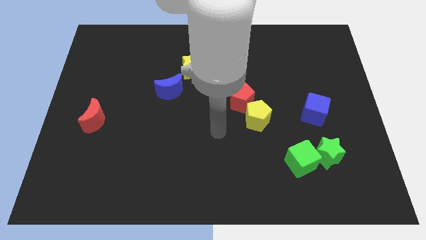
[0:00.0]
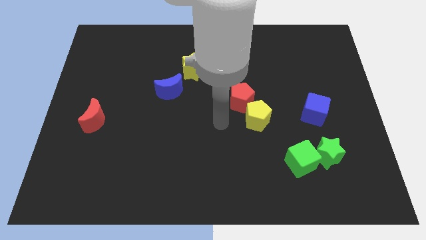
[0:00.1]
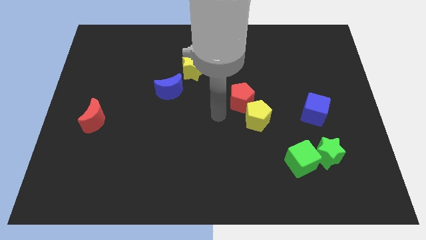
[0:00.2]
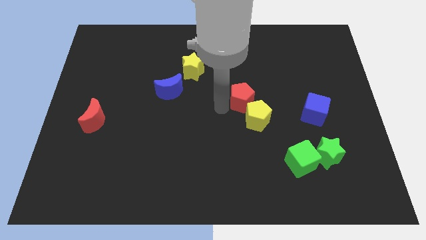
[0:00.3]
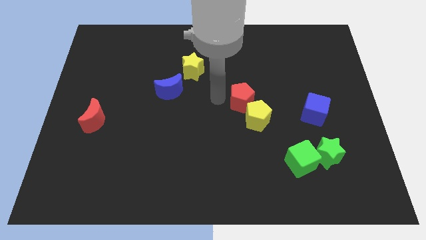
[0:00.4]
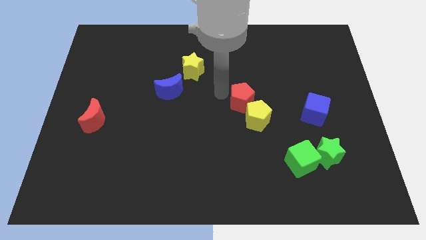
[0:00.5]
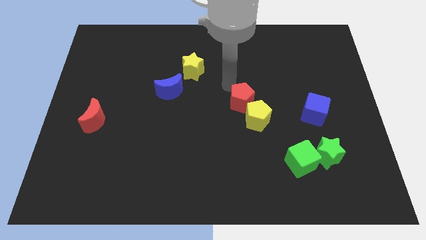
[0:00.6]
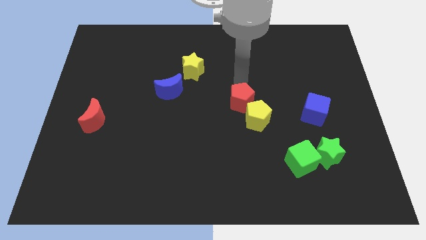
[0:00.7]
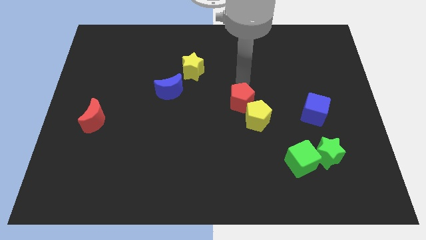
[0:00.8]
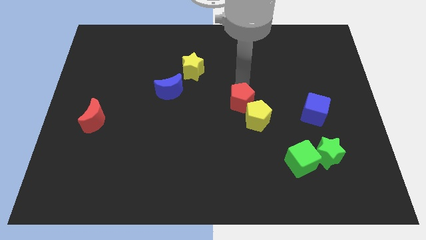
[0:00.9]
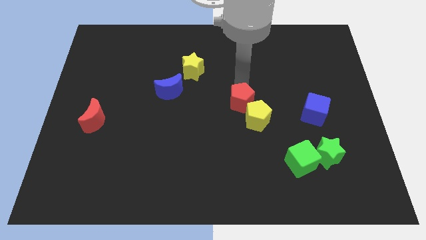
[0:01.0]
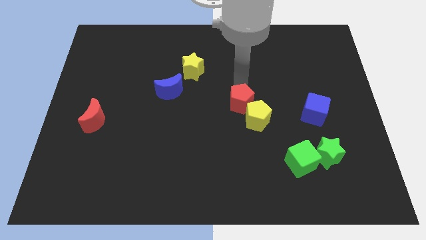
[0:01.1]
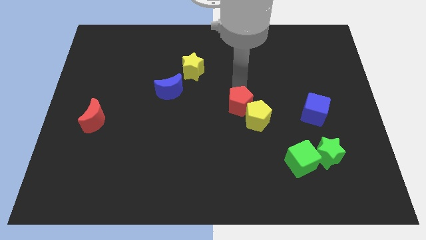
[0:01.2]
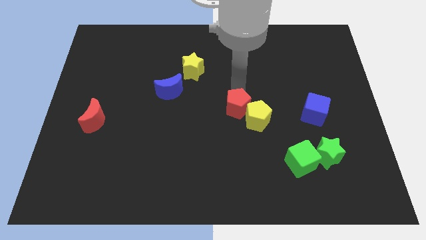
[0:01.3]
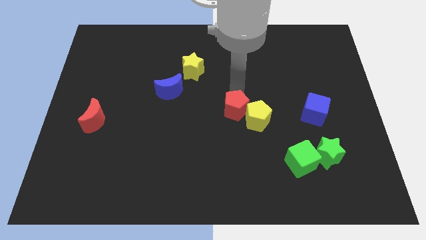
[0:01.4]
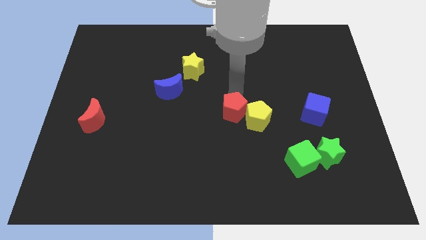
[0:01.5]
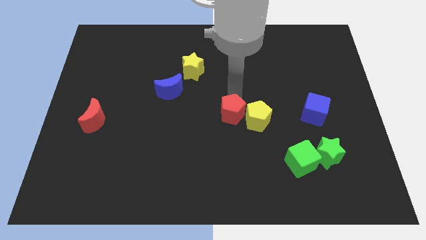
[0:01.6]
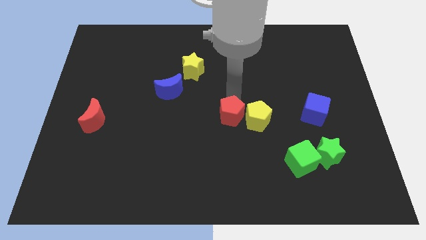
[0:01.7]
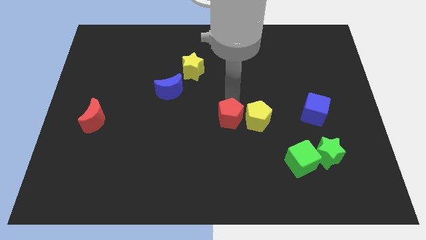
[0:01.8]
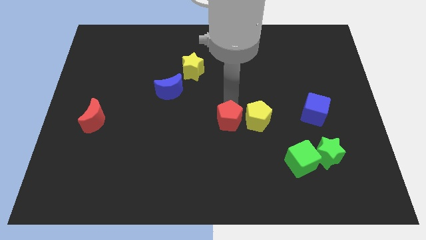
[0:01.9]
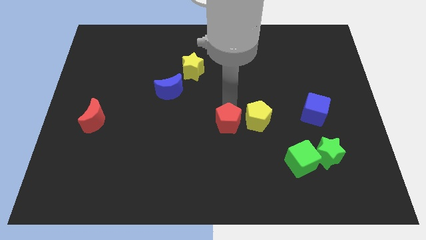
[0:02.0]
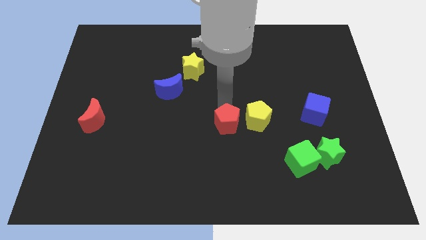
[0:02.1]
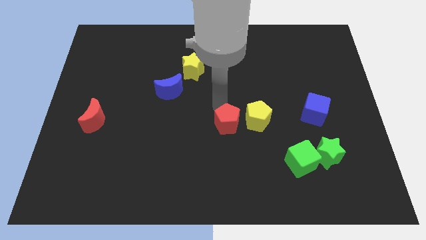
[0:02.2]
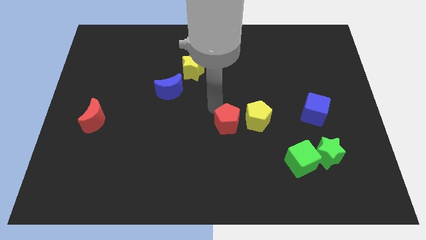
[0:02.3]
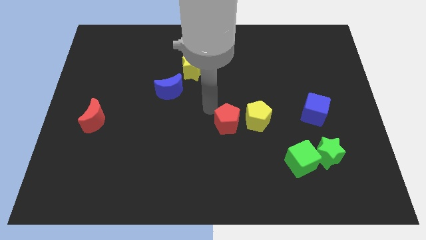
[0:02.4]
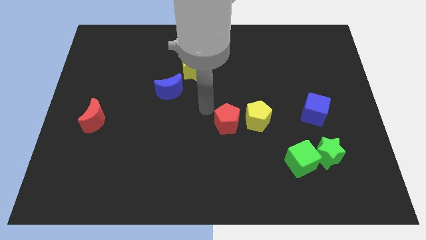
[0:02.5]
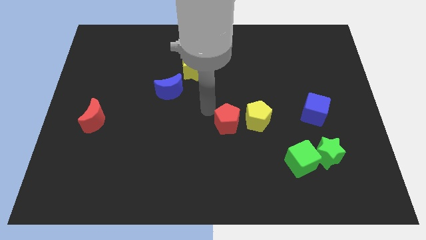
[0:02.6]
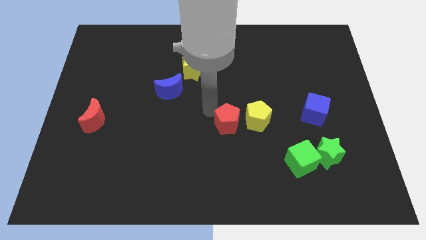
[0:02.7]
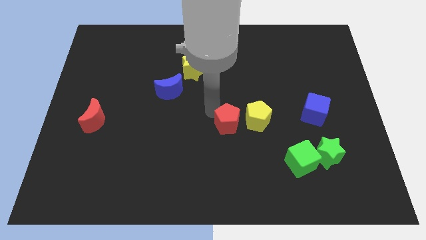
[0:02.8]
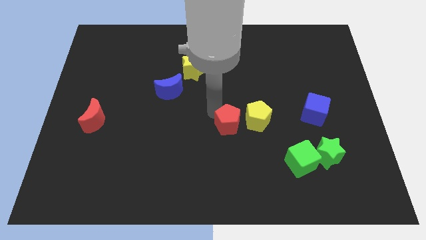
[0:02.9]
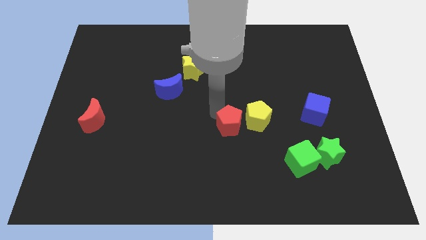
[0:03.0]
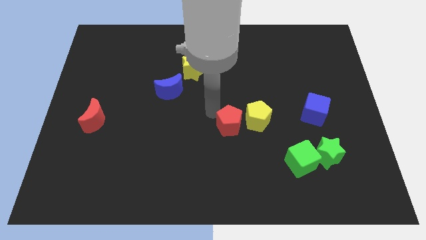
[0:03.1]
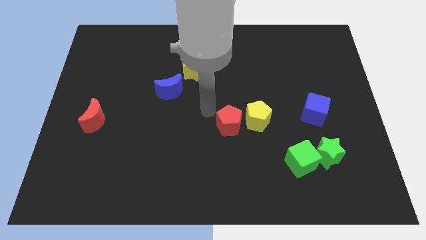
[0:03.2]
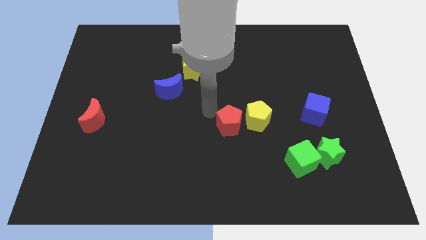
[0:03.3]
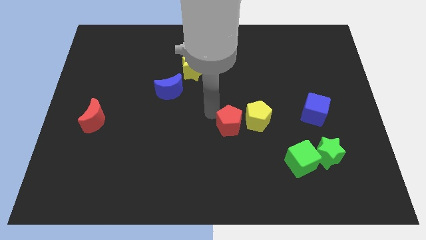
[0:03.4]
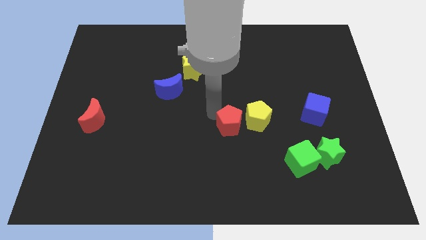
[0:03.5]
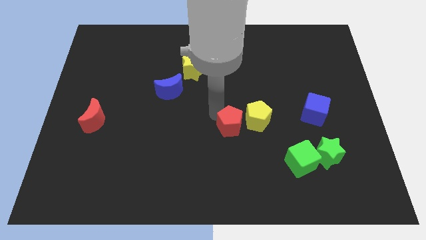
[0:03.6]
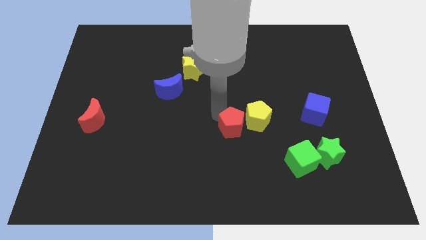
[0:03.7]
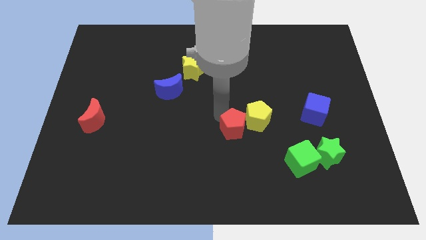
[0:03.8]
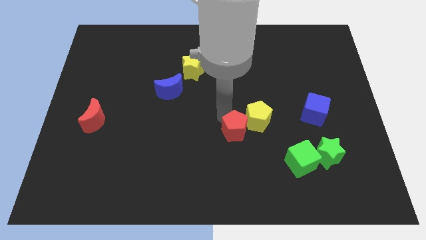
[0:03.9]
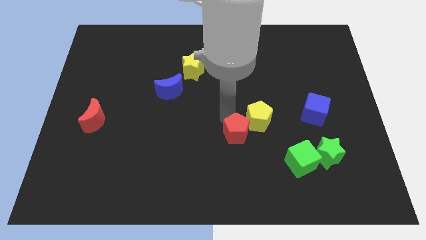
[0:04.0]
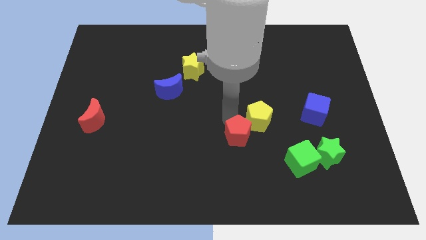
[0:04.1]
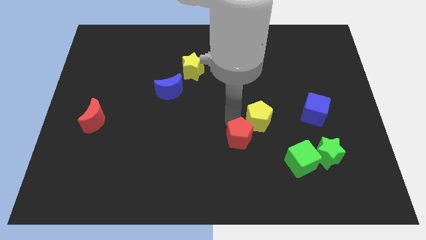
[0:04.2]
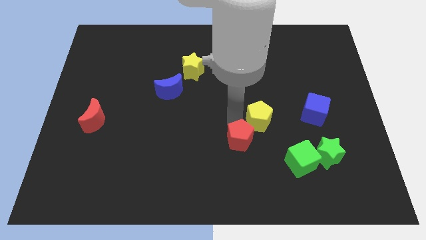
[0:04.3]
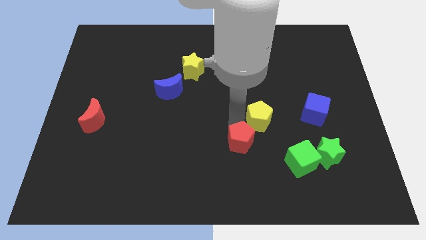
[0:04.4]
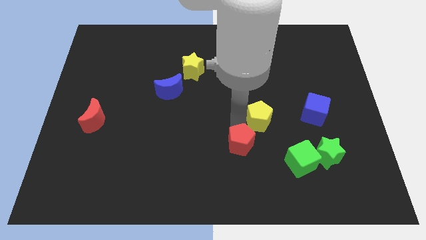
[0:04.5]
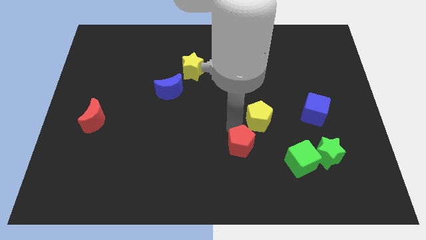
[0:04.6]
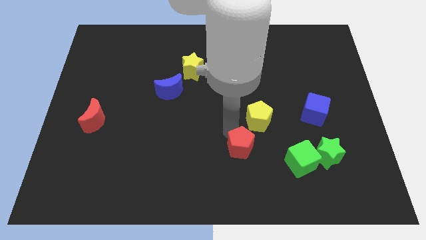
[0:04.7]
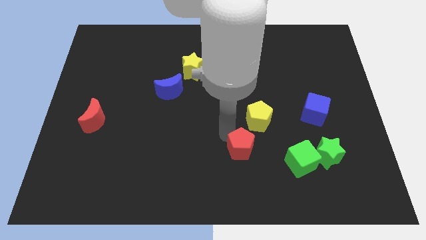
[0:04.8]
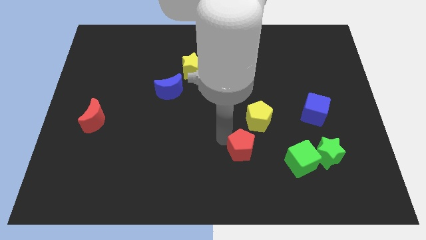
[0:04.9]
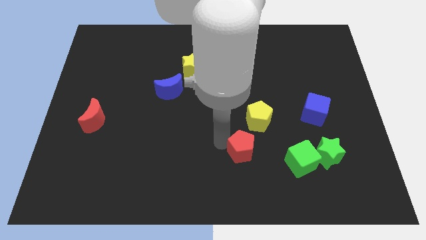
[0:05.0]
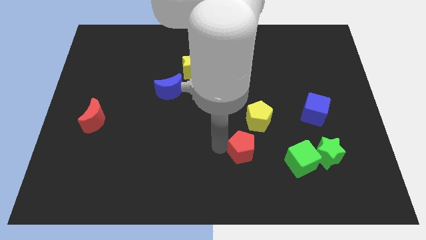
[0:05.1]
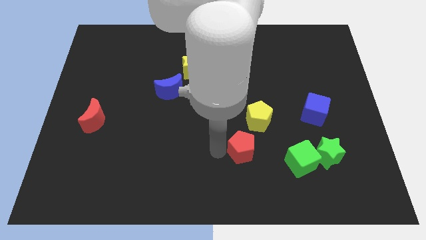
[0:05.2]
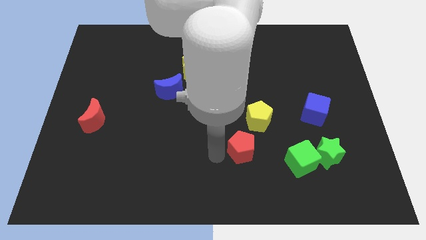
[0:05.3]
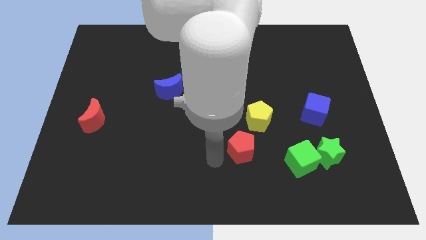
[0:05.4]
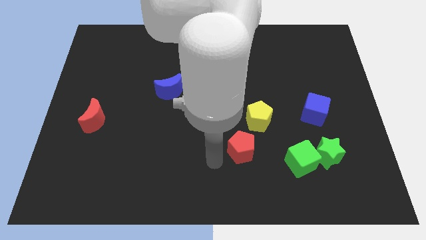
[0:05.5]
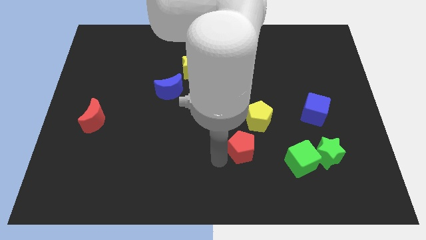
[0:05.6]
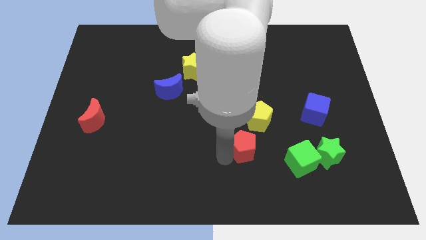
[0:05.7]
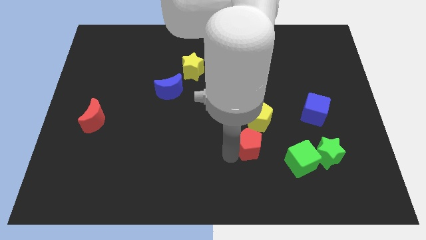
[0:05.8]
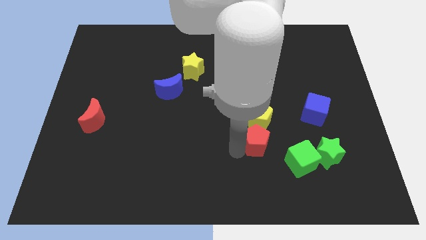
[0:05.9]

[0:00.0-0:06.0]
put the red pentagon to the left side of the green star

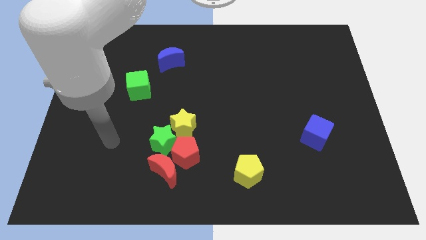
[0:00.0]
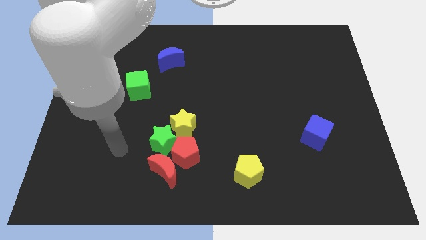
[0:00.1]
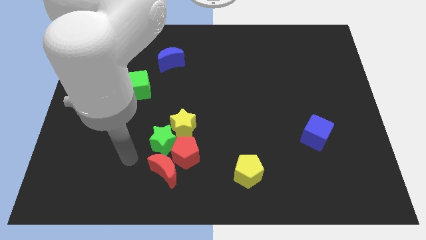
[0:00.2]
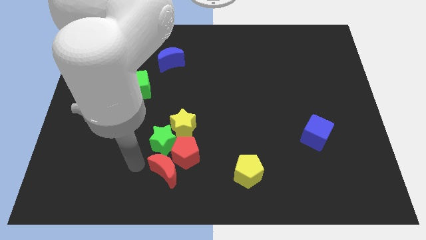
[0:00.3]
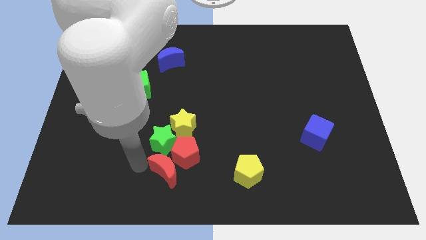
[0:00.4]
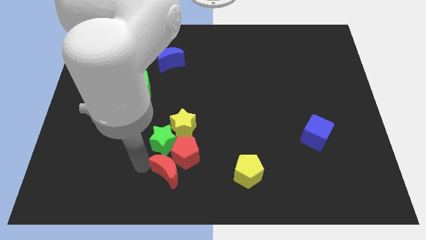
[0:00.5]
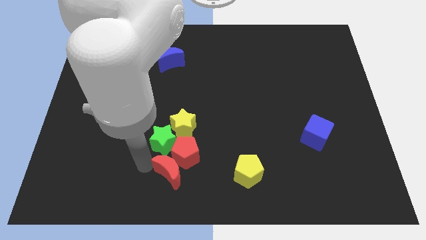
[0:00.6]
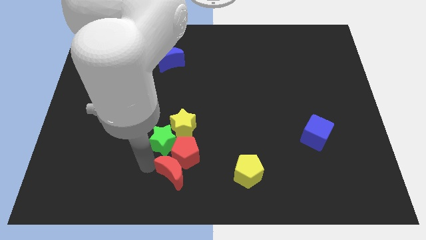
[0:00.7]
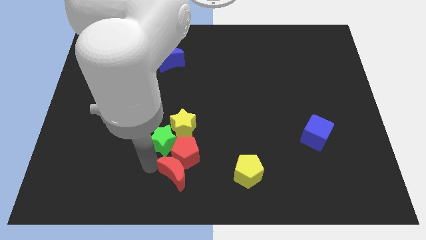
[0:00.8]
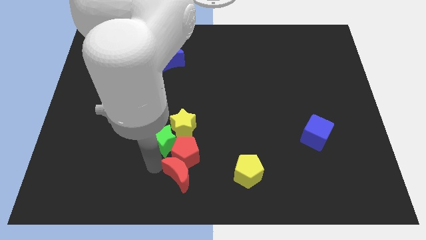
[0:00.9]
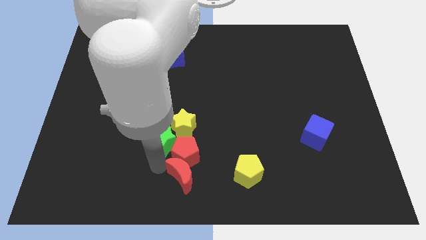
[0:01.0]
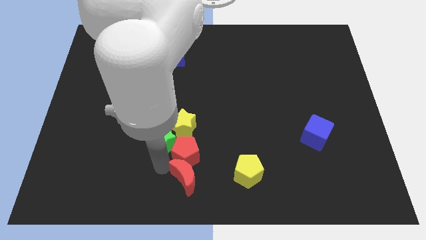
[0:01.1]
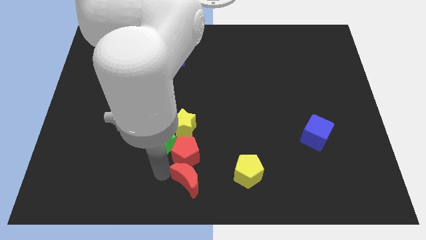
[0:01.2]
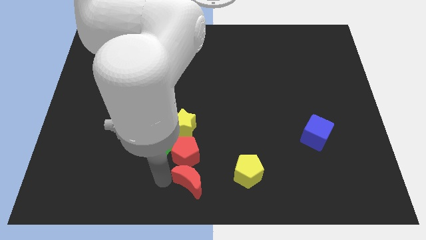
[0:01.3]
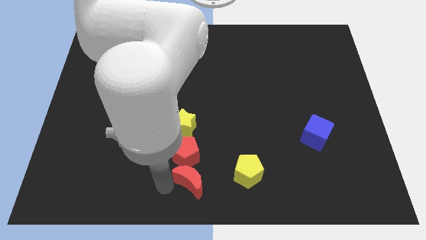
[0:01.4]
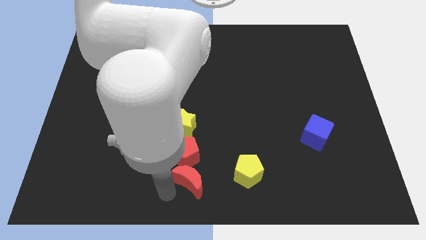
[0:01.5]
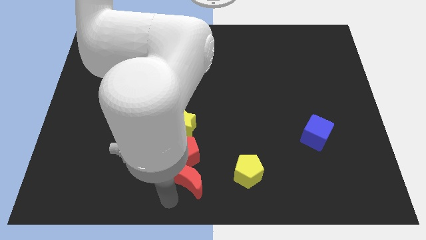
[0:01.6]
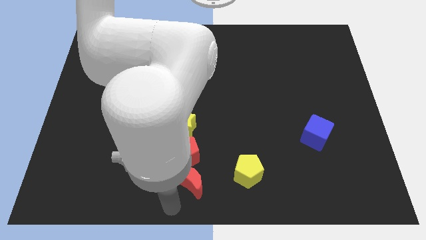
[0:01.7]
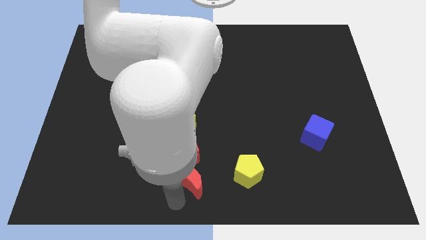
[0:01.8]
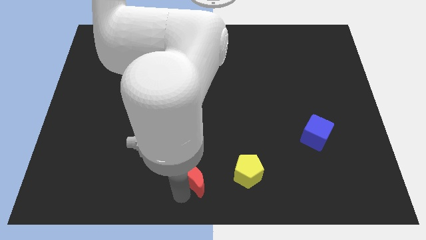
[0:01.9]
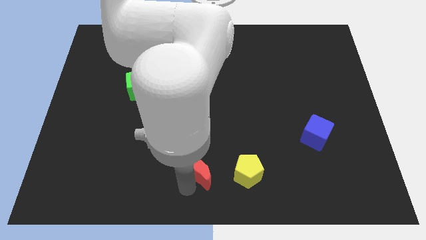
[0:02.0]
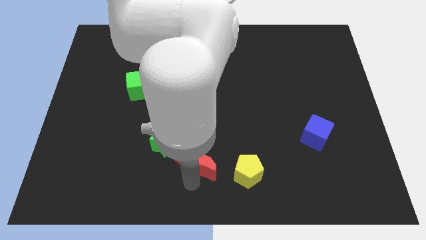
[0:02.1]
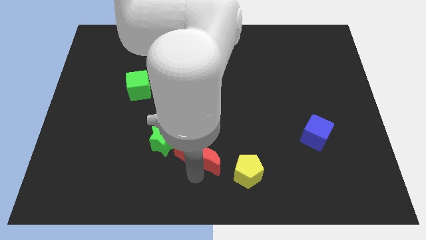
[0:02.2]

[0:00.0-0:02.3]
put the red moon diagonally up and to the left of the yellow pentagon
